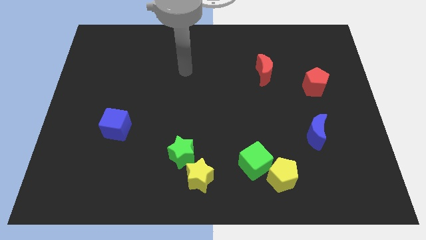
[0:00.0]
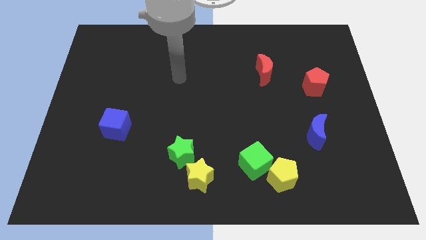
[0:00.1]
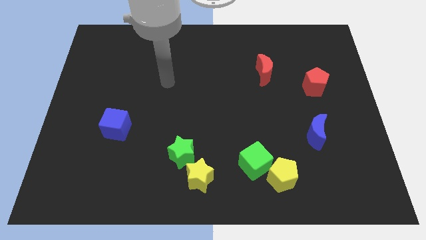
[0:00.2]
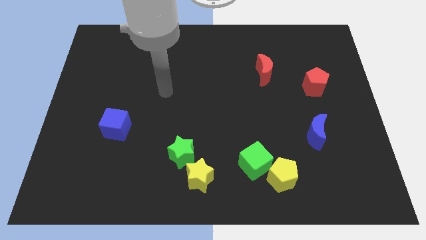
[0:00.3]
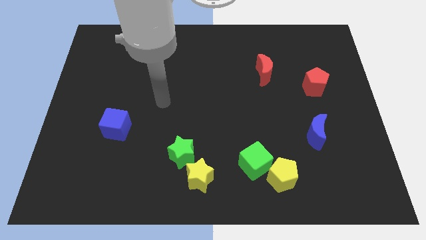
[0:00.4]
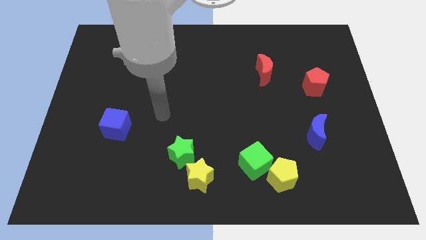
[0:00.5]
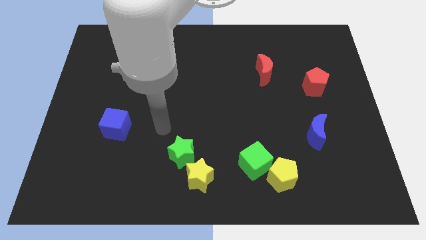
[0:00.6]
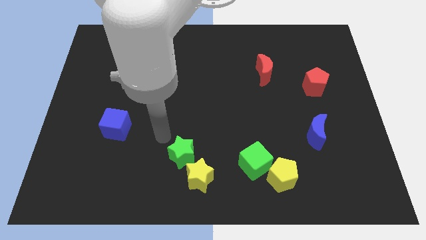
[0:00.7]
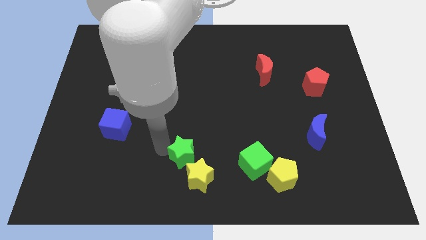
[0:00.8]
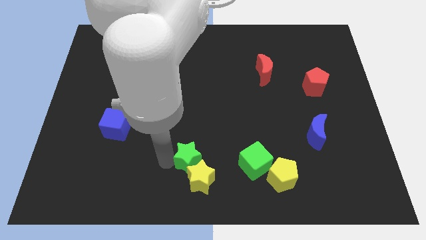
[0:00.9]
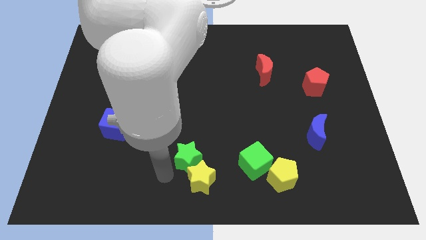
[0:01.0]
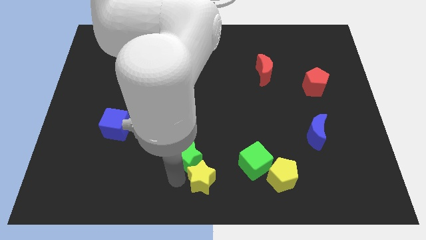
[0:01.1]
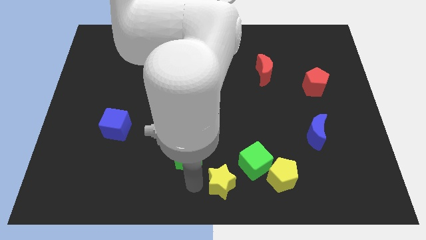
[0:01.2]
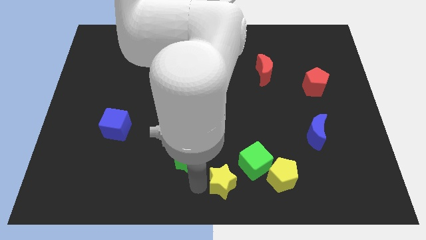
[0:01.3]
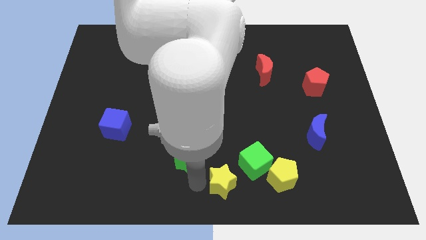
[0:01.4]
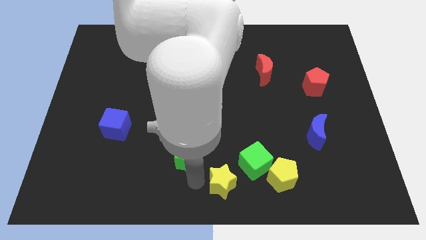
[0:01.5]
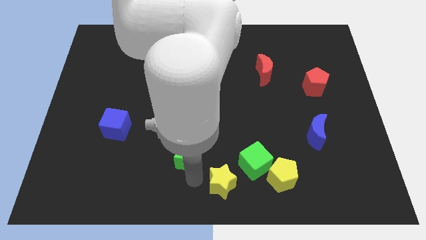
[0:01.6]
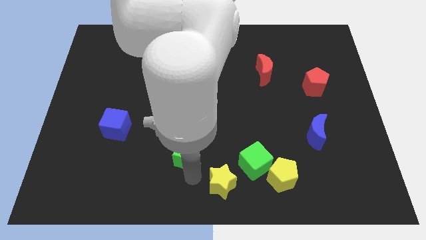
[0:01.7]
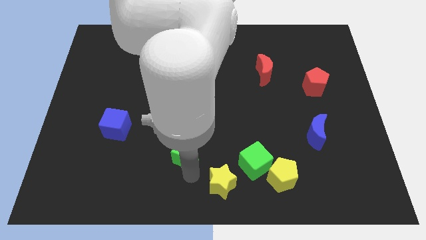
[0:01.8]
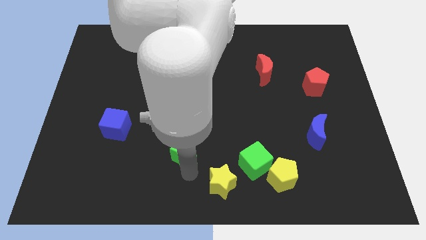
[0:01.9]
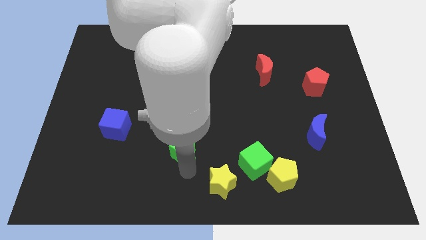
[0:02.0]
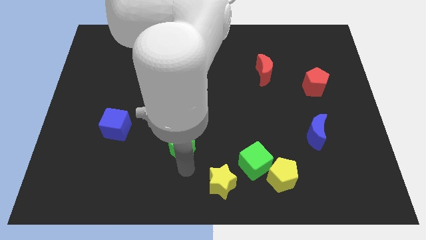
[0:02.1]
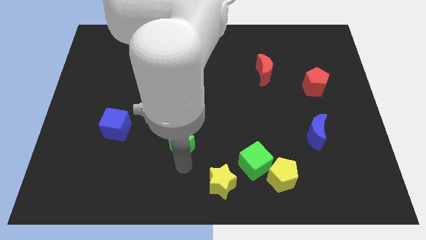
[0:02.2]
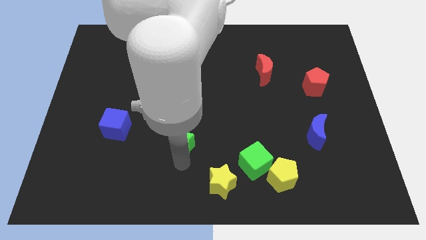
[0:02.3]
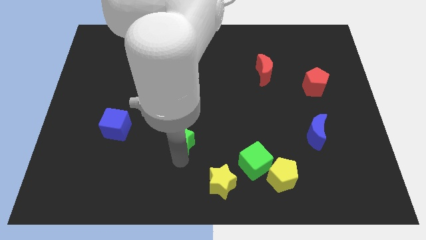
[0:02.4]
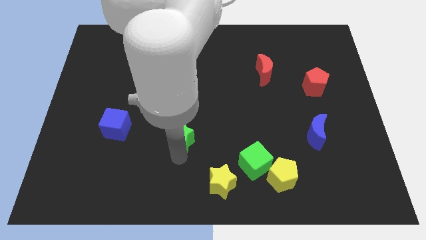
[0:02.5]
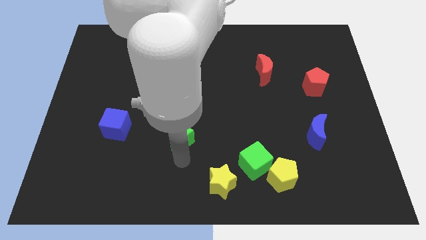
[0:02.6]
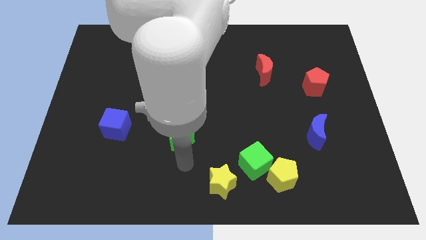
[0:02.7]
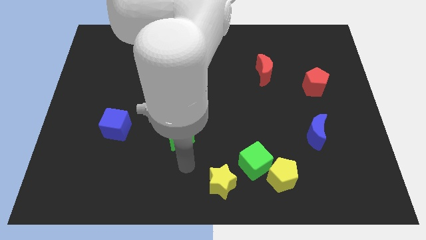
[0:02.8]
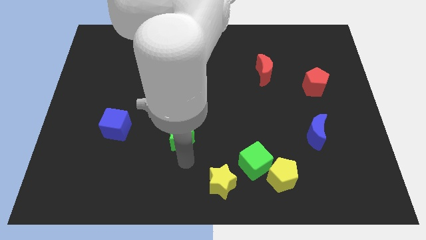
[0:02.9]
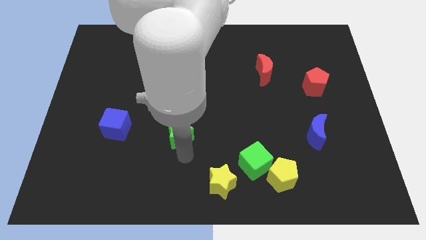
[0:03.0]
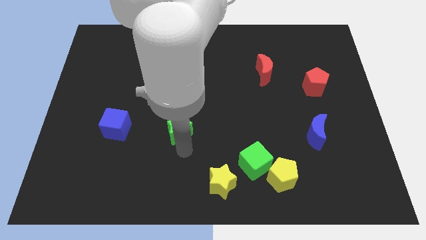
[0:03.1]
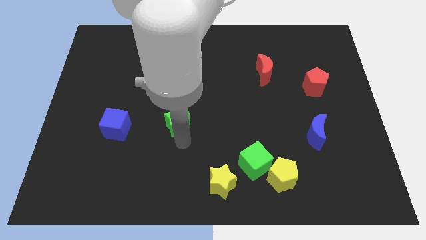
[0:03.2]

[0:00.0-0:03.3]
slightly push the green star up

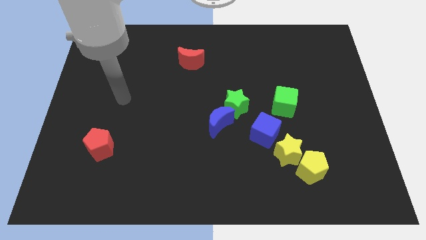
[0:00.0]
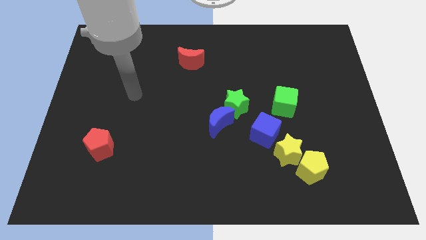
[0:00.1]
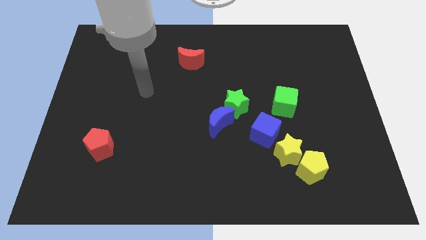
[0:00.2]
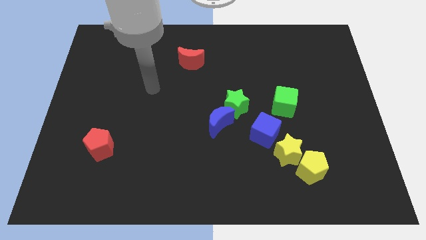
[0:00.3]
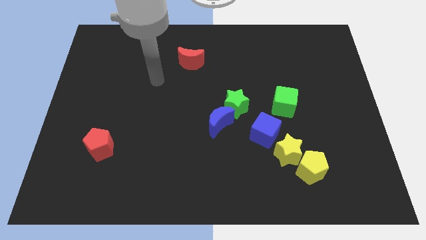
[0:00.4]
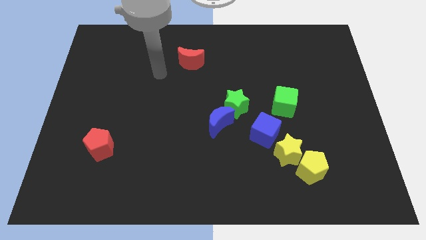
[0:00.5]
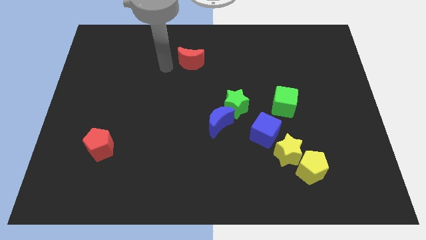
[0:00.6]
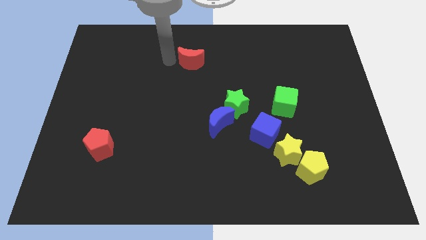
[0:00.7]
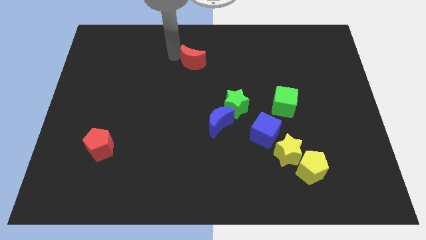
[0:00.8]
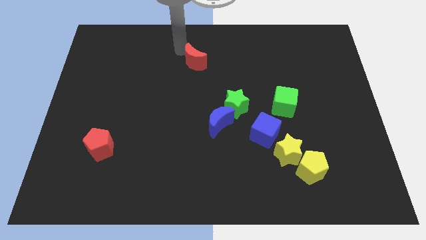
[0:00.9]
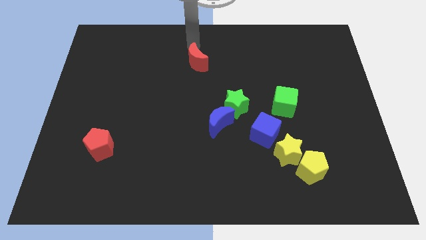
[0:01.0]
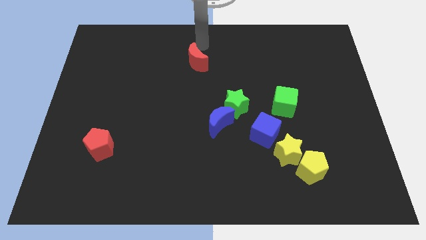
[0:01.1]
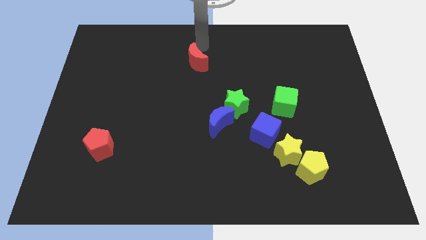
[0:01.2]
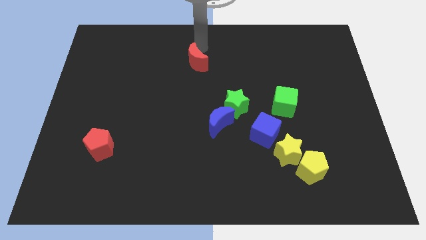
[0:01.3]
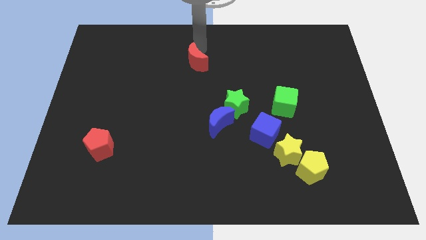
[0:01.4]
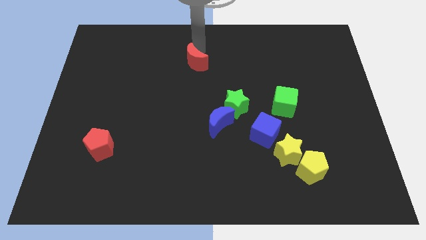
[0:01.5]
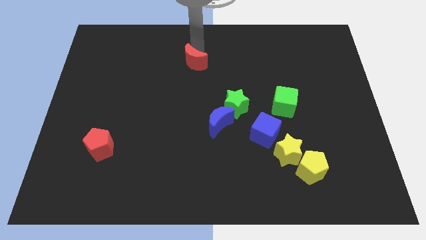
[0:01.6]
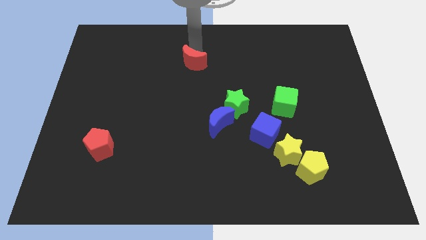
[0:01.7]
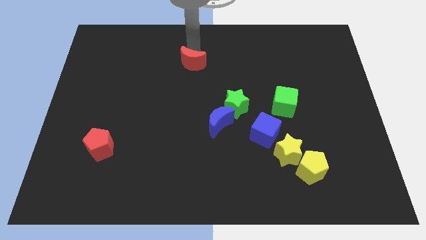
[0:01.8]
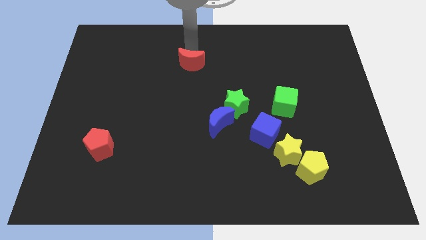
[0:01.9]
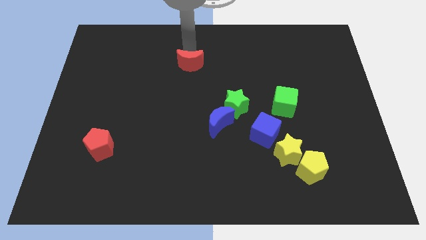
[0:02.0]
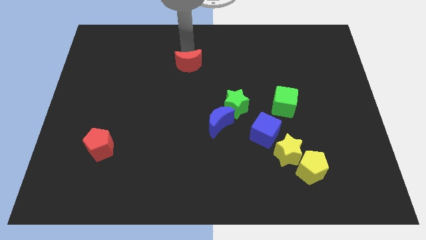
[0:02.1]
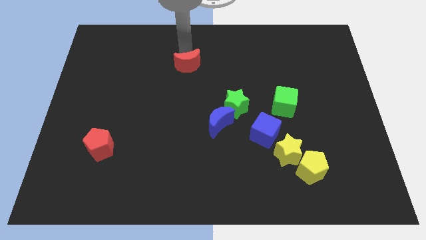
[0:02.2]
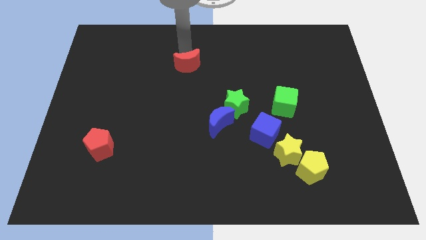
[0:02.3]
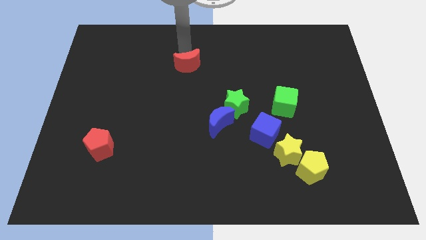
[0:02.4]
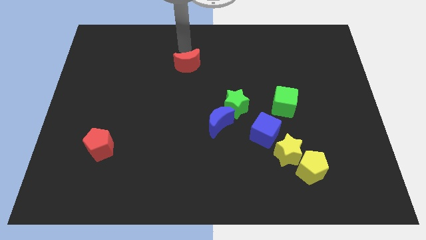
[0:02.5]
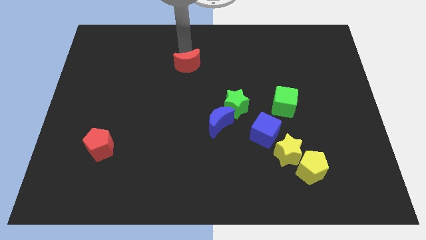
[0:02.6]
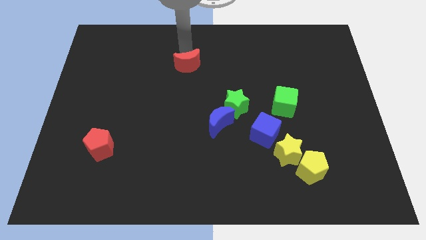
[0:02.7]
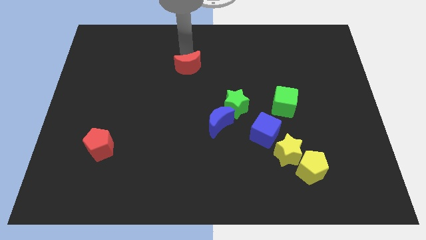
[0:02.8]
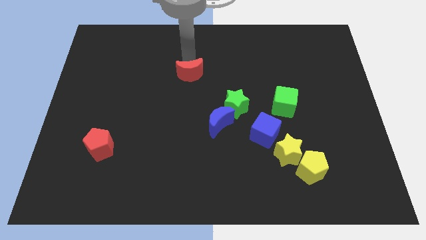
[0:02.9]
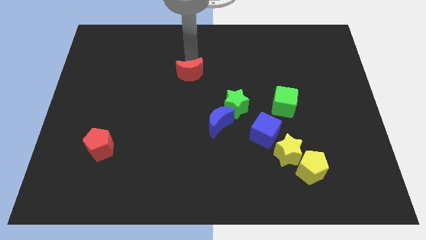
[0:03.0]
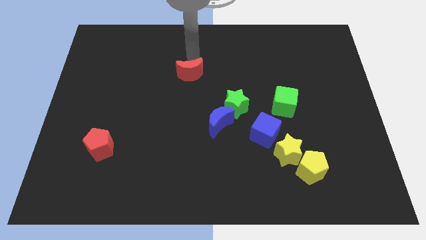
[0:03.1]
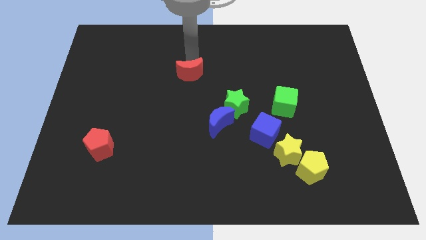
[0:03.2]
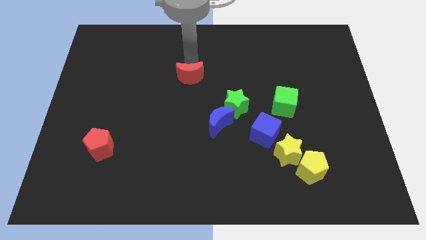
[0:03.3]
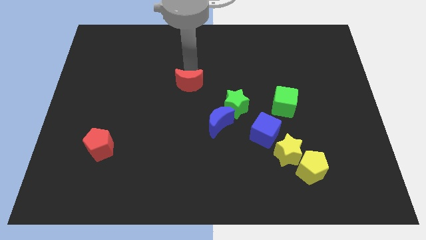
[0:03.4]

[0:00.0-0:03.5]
move the red moon a little down

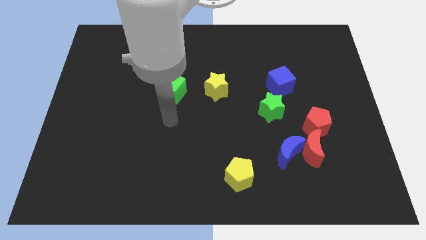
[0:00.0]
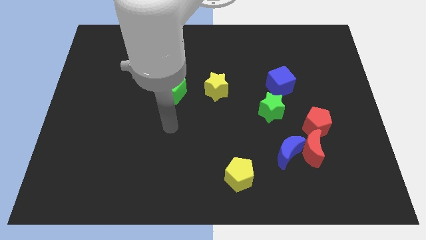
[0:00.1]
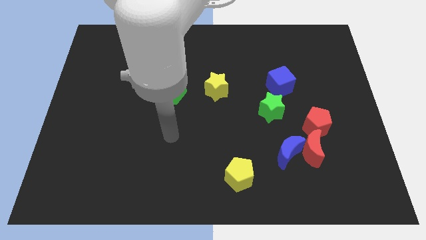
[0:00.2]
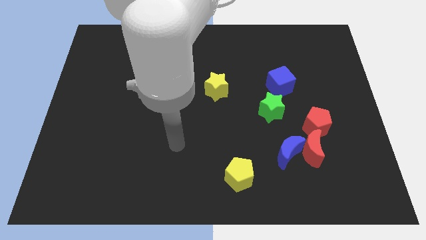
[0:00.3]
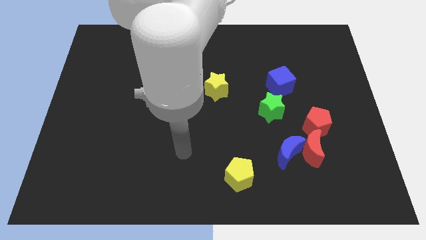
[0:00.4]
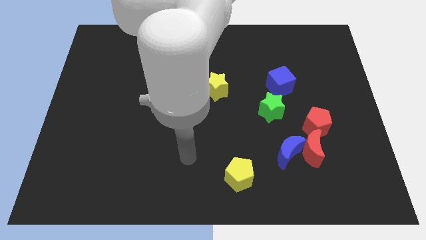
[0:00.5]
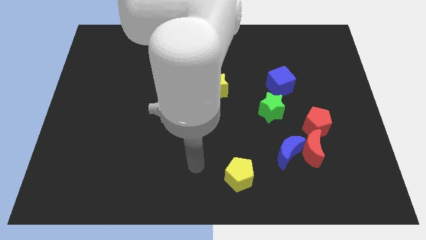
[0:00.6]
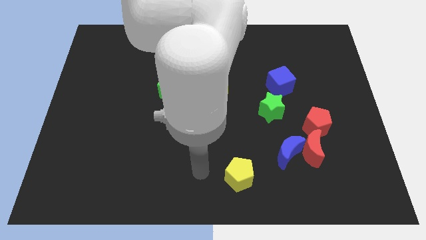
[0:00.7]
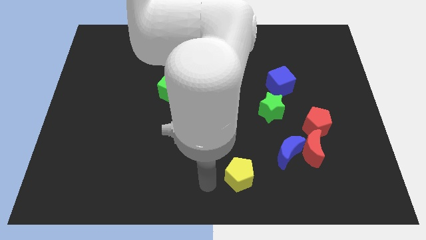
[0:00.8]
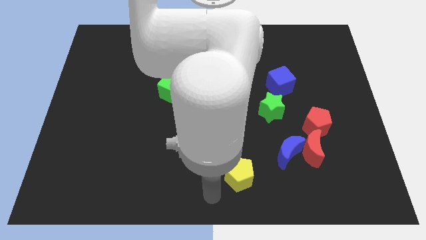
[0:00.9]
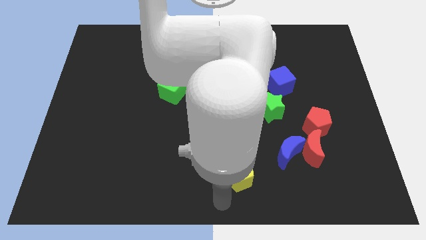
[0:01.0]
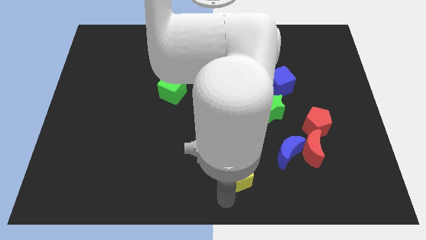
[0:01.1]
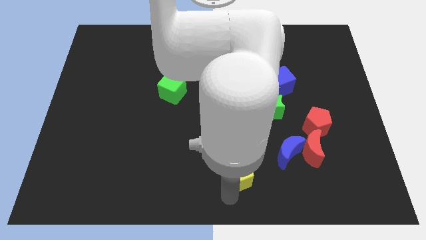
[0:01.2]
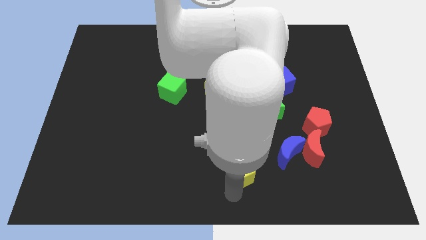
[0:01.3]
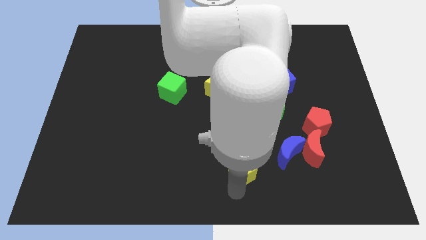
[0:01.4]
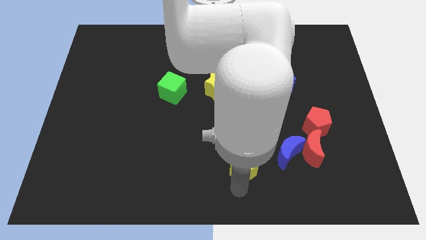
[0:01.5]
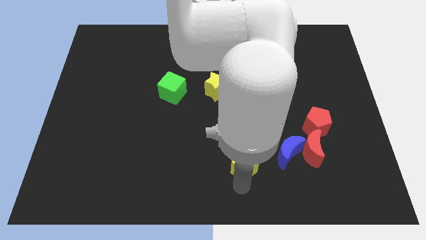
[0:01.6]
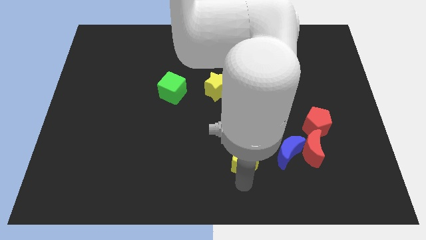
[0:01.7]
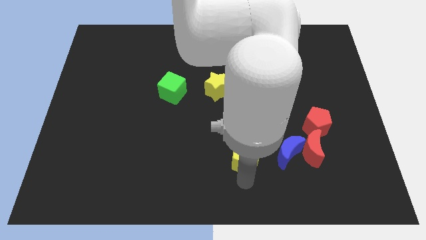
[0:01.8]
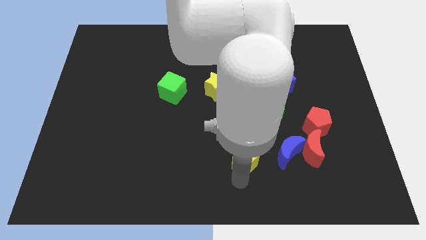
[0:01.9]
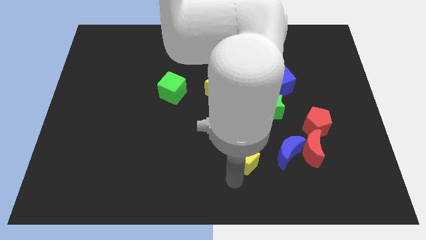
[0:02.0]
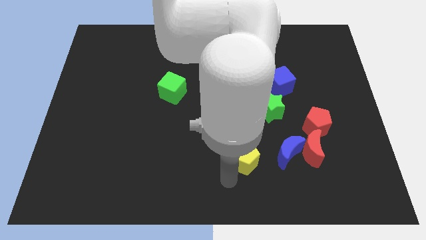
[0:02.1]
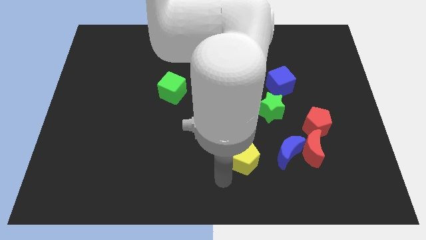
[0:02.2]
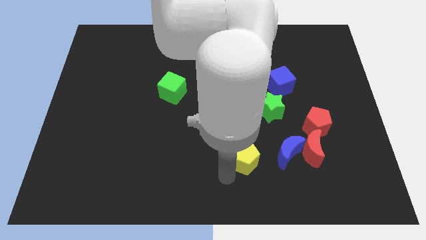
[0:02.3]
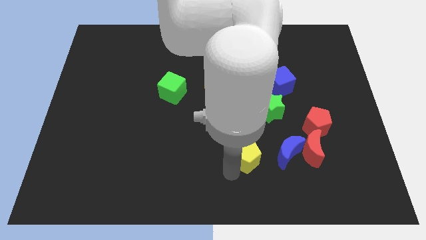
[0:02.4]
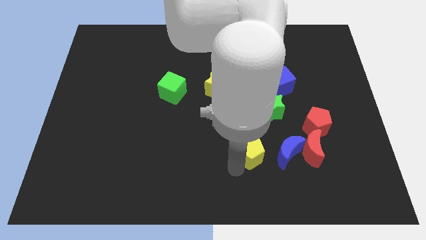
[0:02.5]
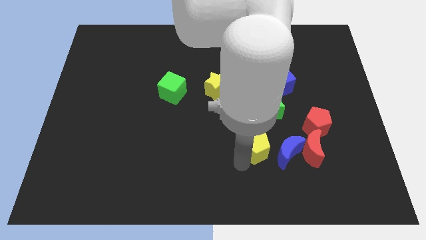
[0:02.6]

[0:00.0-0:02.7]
move the yellow pentagon a bit up and right
